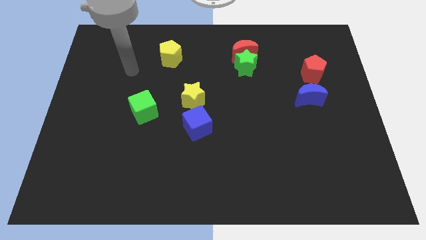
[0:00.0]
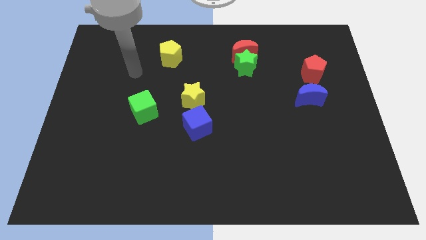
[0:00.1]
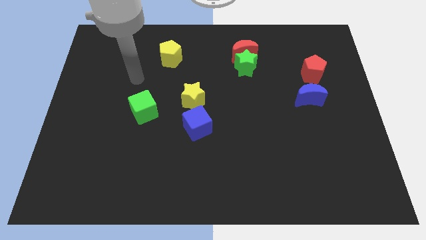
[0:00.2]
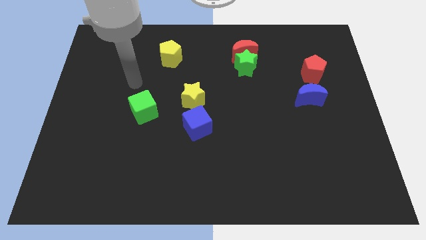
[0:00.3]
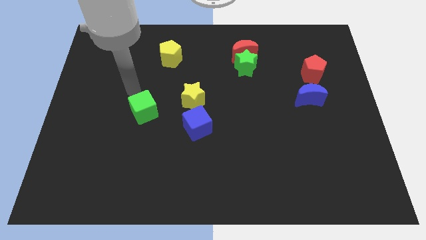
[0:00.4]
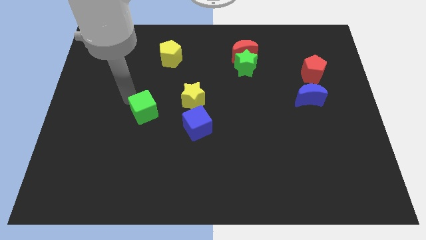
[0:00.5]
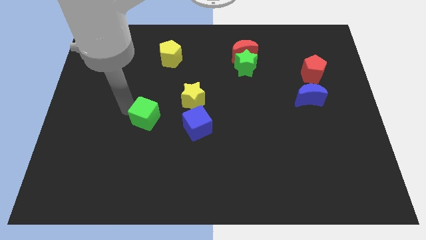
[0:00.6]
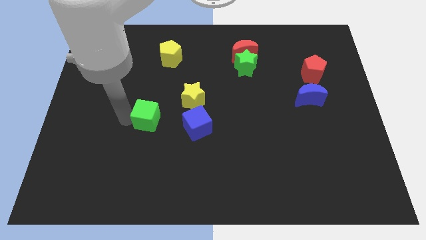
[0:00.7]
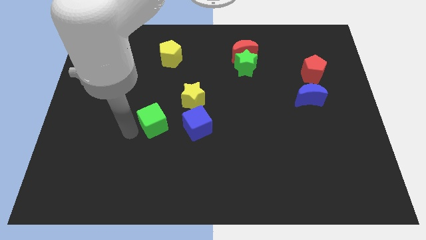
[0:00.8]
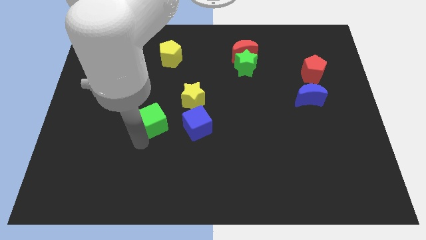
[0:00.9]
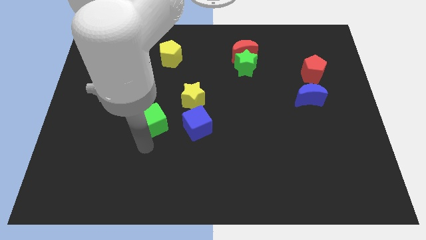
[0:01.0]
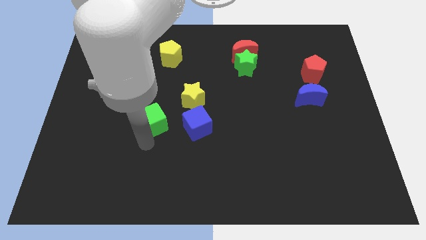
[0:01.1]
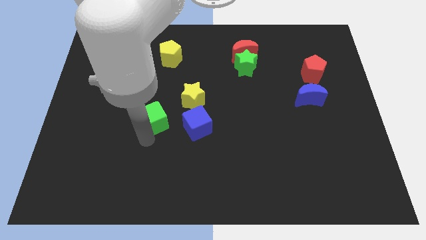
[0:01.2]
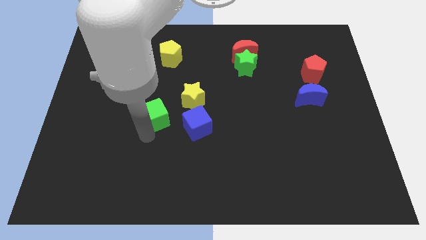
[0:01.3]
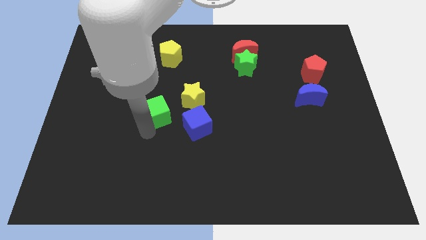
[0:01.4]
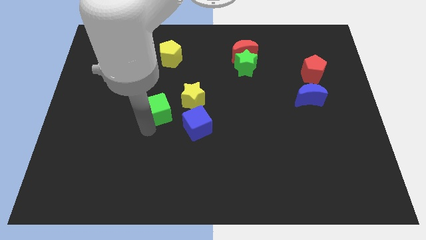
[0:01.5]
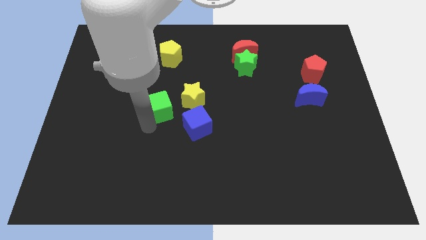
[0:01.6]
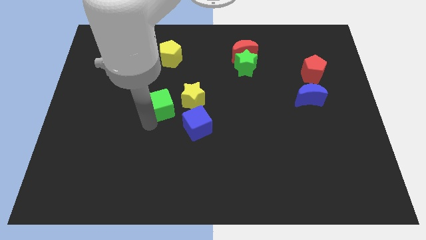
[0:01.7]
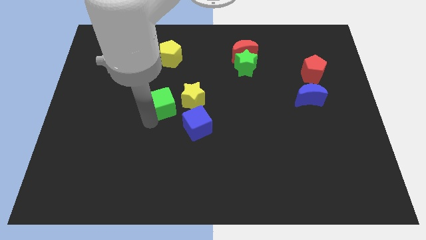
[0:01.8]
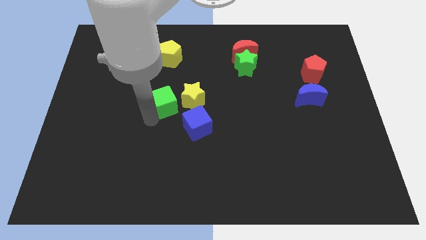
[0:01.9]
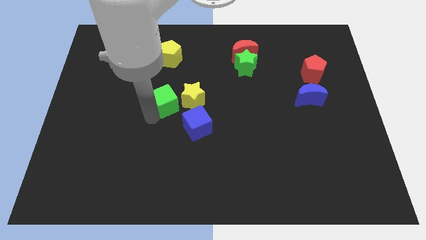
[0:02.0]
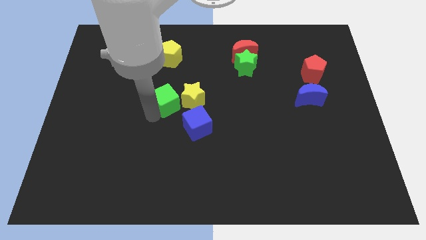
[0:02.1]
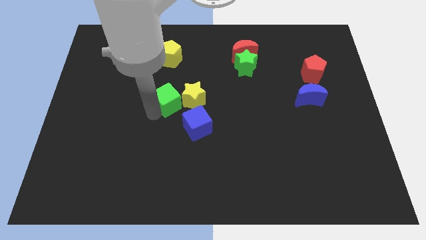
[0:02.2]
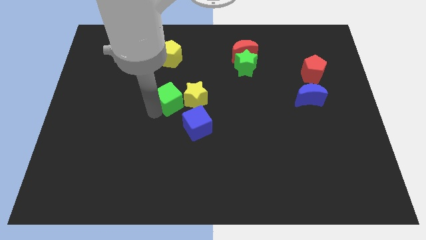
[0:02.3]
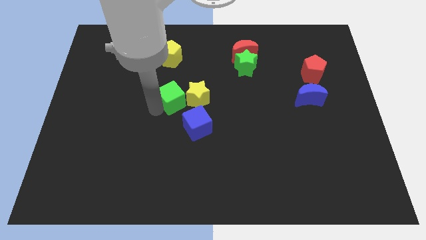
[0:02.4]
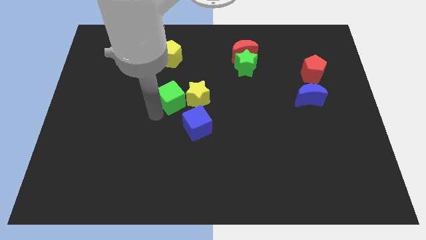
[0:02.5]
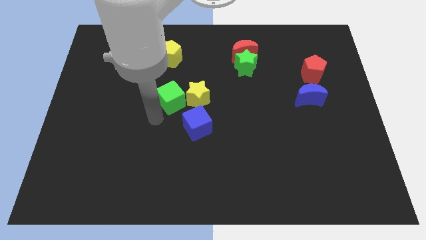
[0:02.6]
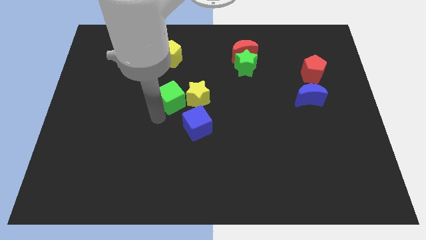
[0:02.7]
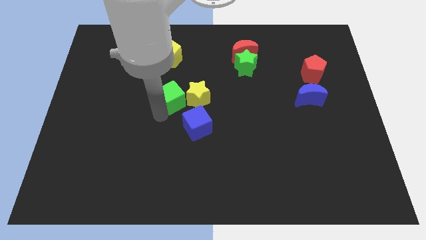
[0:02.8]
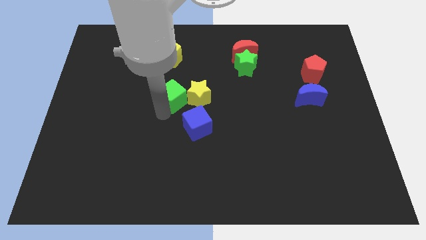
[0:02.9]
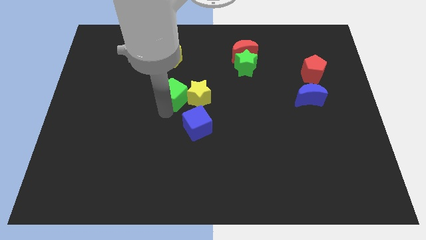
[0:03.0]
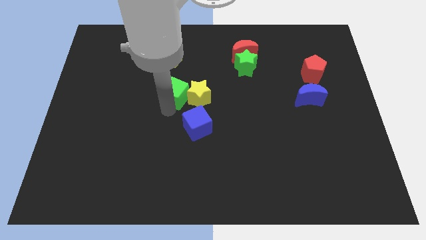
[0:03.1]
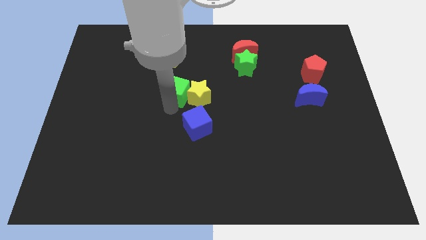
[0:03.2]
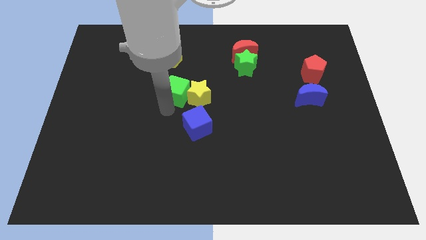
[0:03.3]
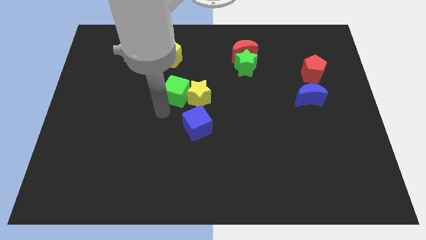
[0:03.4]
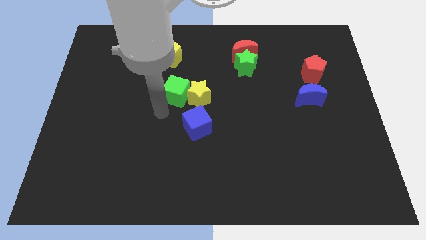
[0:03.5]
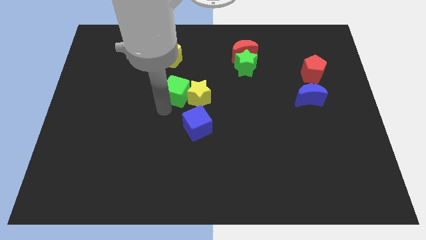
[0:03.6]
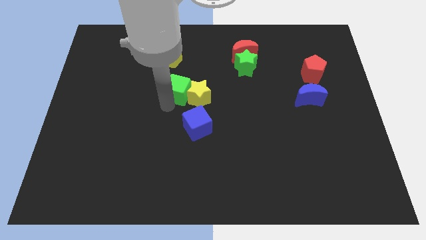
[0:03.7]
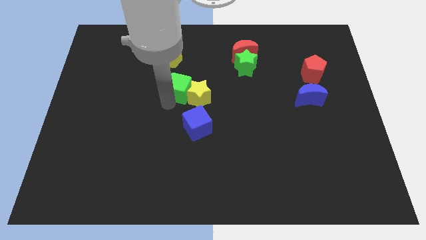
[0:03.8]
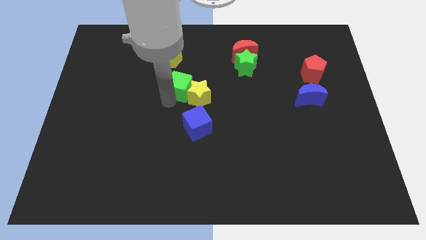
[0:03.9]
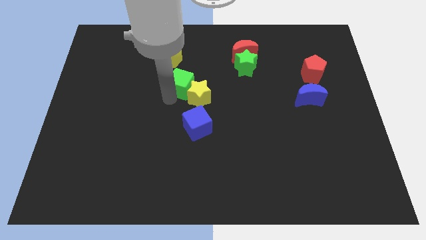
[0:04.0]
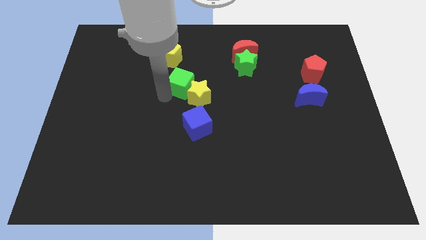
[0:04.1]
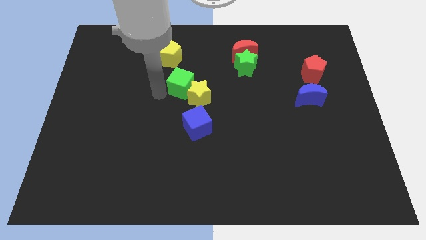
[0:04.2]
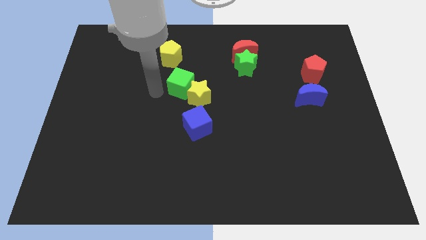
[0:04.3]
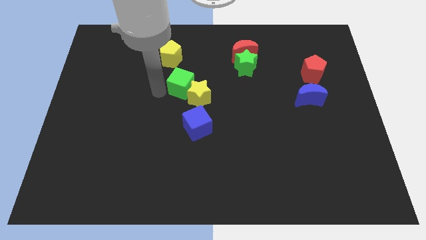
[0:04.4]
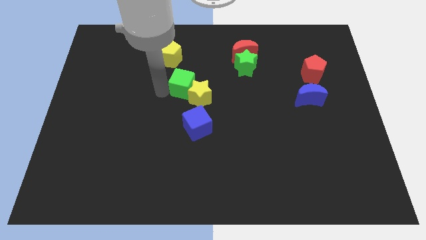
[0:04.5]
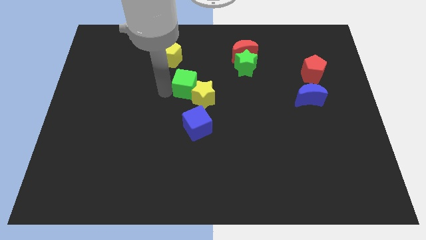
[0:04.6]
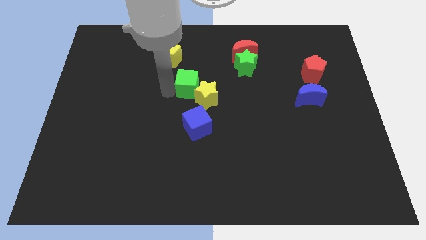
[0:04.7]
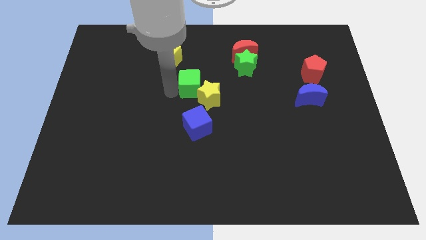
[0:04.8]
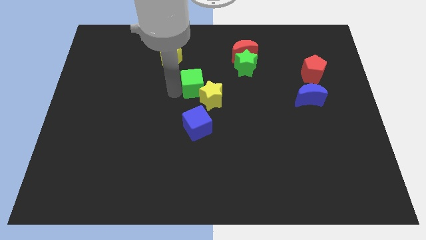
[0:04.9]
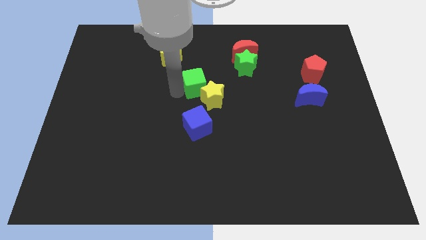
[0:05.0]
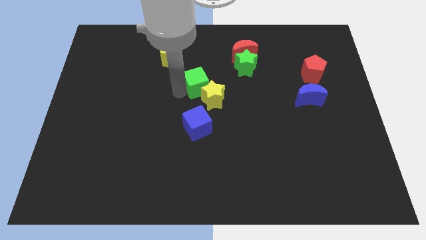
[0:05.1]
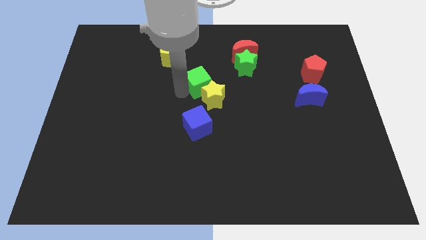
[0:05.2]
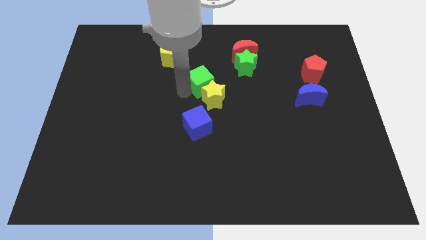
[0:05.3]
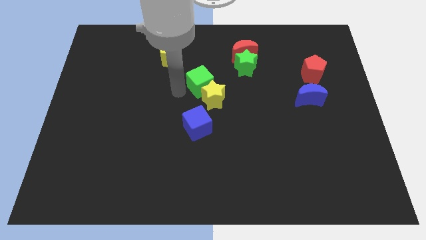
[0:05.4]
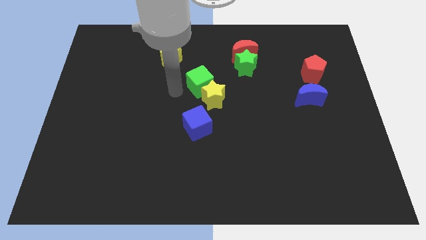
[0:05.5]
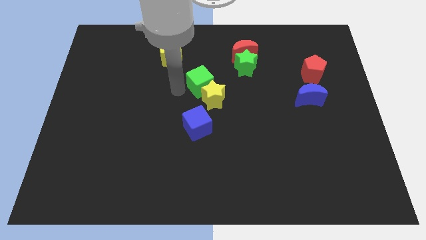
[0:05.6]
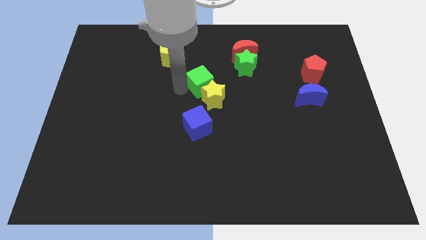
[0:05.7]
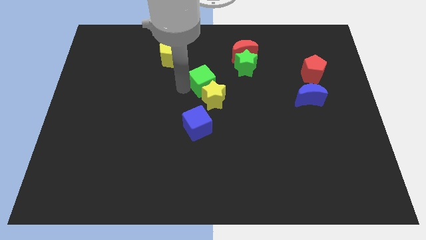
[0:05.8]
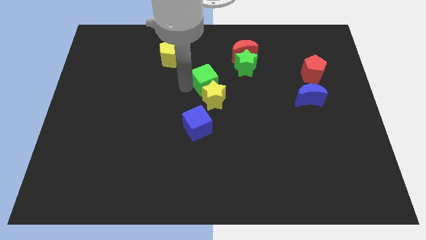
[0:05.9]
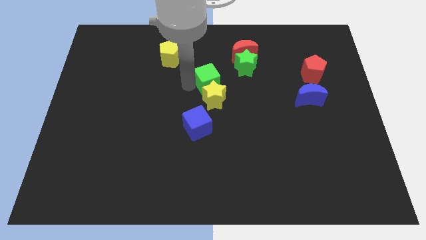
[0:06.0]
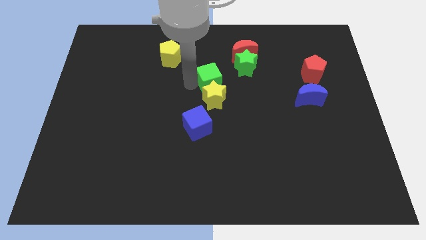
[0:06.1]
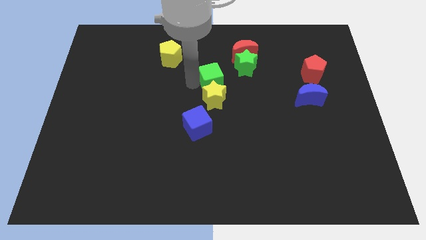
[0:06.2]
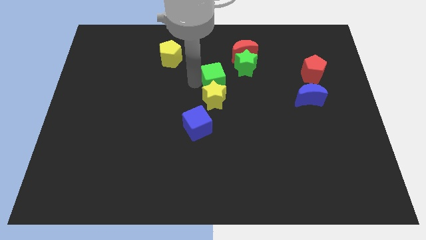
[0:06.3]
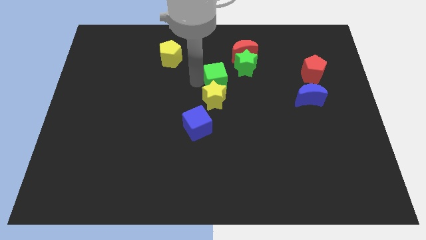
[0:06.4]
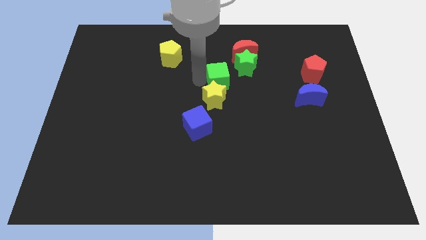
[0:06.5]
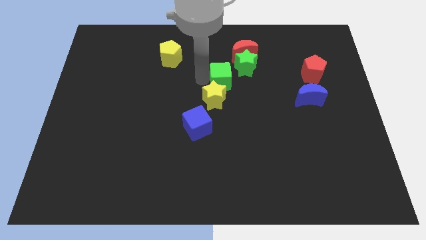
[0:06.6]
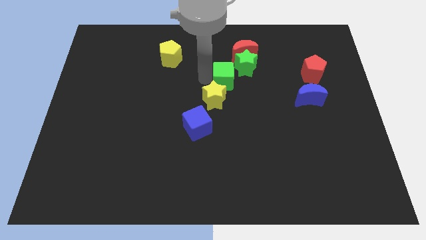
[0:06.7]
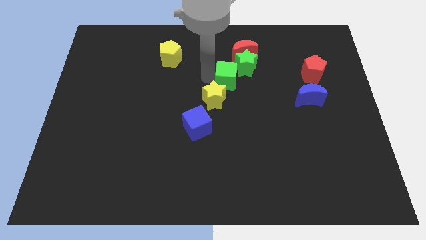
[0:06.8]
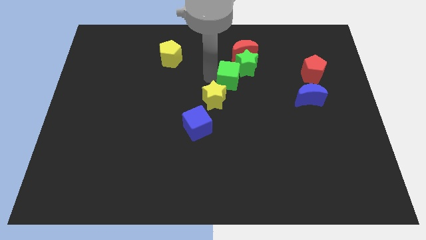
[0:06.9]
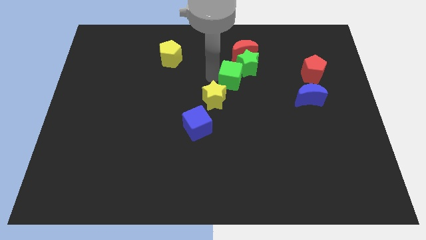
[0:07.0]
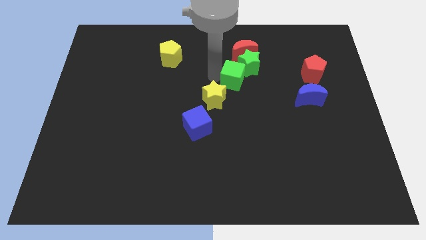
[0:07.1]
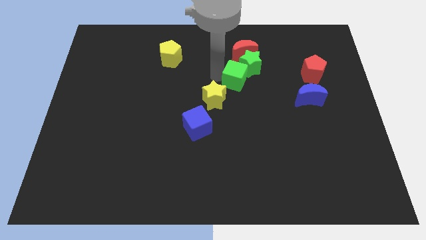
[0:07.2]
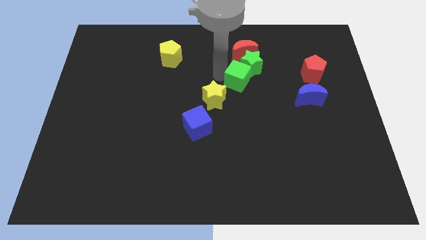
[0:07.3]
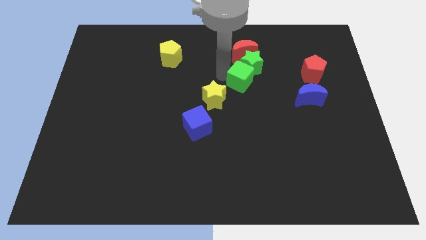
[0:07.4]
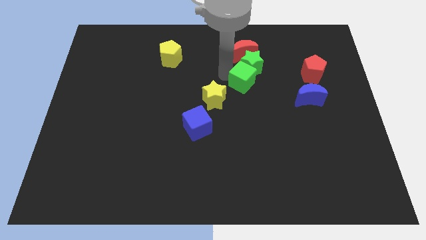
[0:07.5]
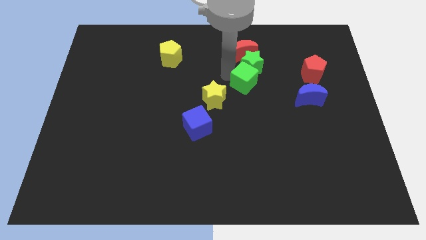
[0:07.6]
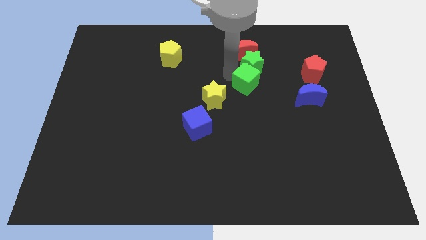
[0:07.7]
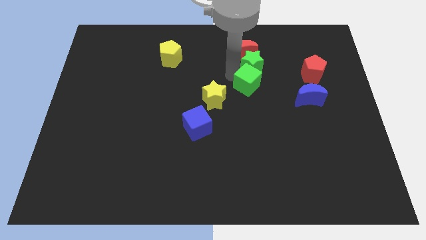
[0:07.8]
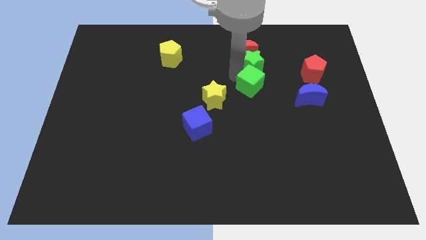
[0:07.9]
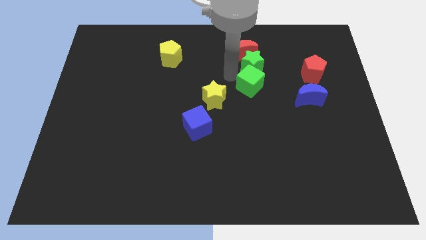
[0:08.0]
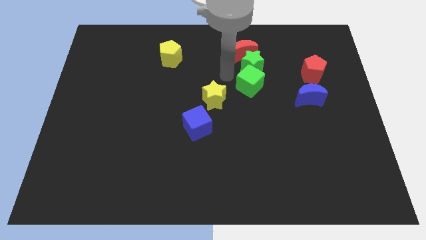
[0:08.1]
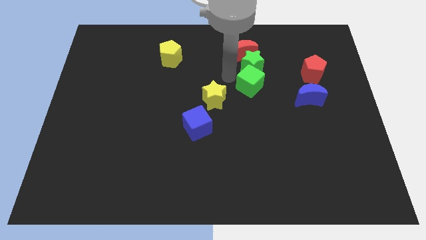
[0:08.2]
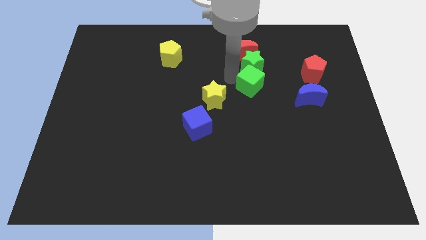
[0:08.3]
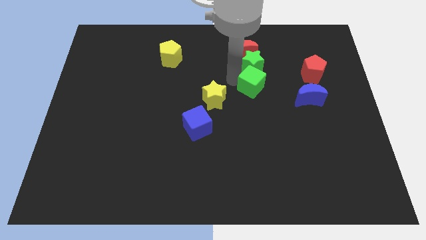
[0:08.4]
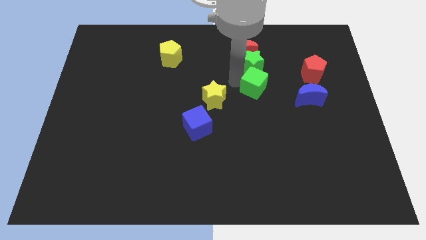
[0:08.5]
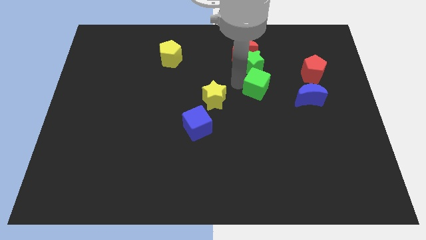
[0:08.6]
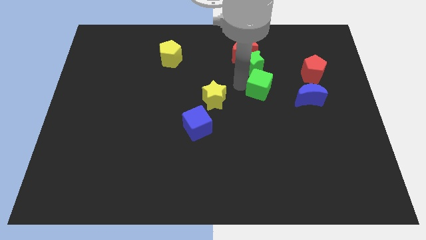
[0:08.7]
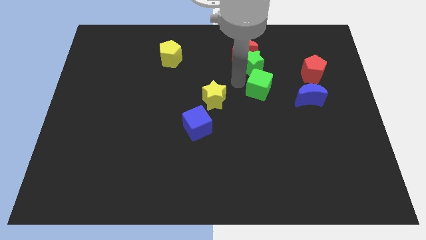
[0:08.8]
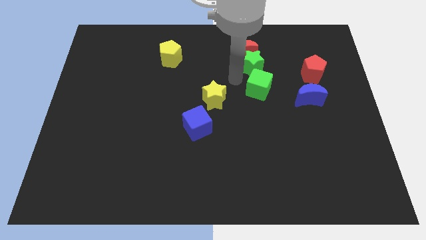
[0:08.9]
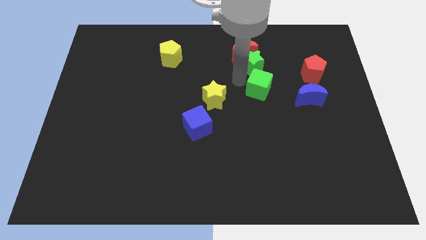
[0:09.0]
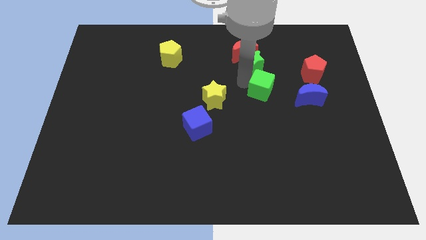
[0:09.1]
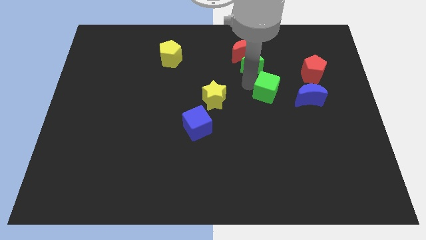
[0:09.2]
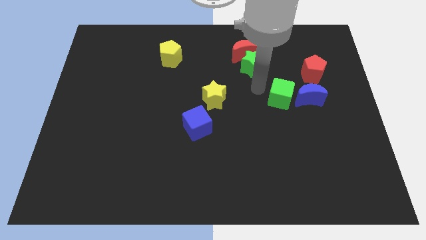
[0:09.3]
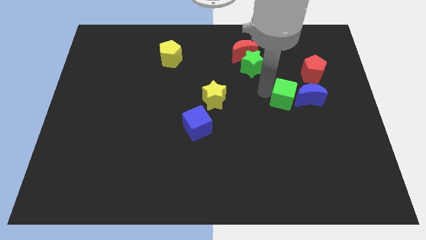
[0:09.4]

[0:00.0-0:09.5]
move the green cube towards the blue moon
